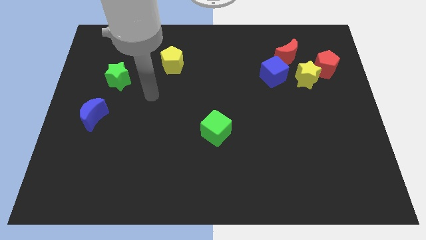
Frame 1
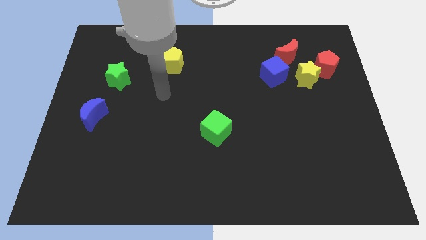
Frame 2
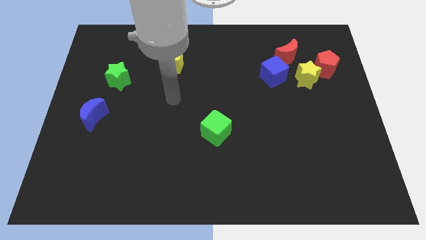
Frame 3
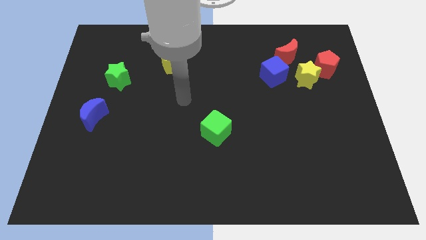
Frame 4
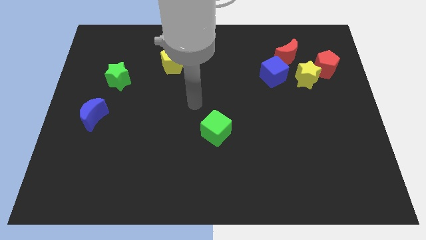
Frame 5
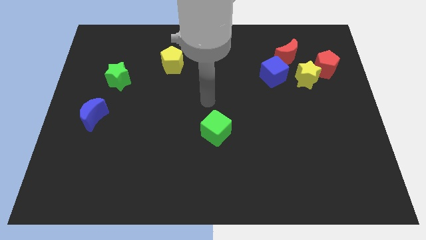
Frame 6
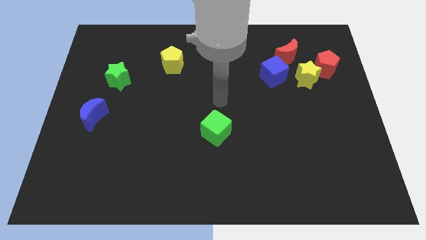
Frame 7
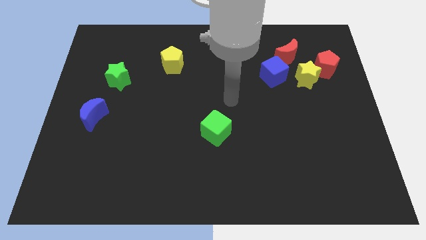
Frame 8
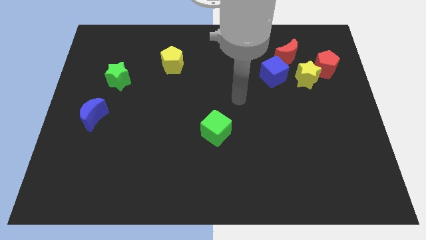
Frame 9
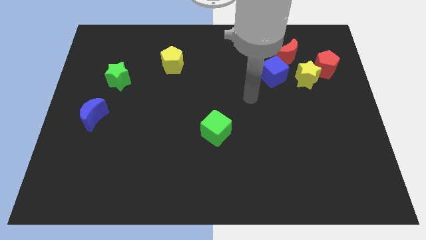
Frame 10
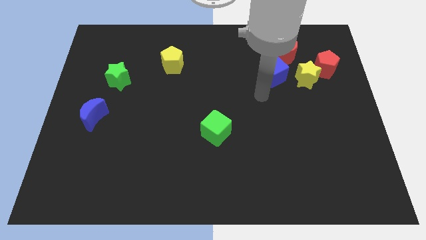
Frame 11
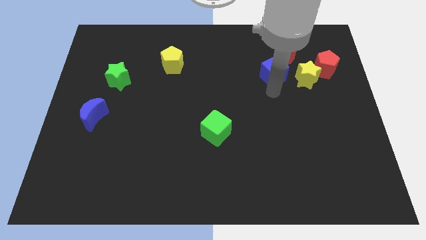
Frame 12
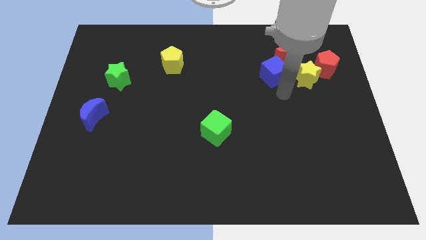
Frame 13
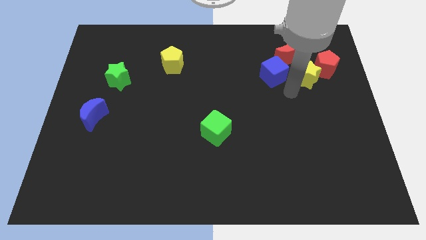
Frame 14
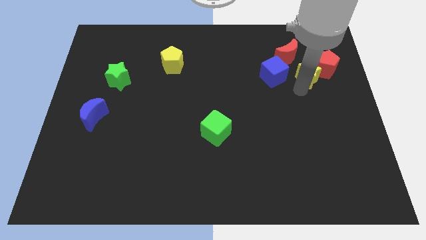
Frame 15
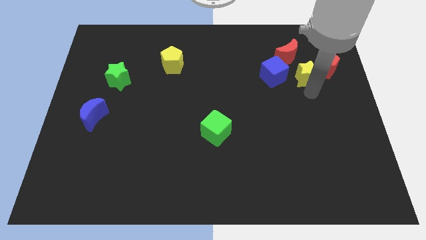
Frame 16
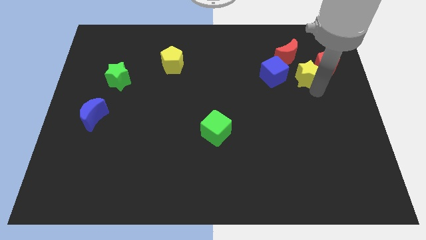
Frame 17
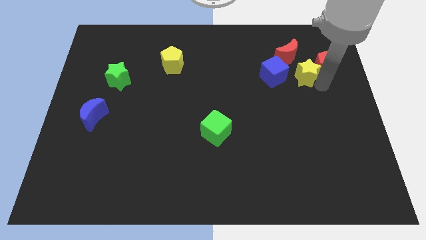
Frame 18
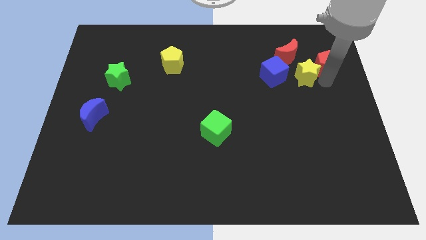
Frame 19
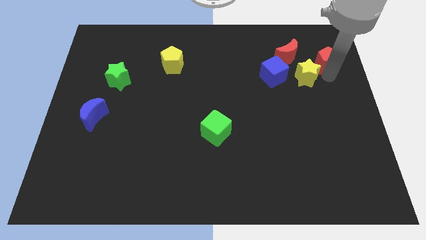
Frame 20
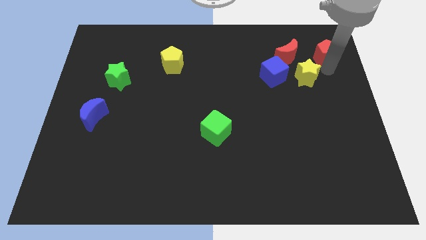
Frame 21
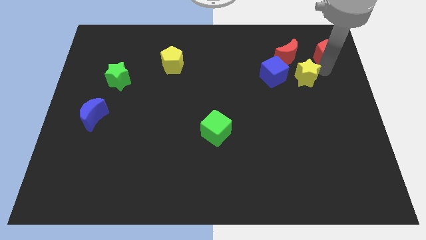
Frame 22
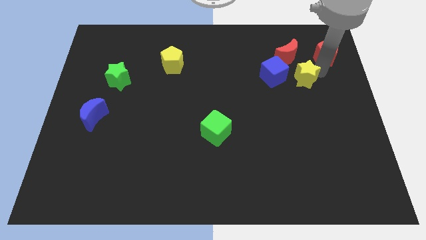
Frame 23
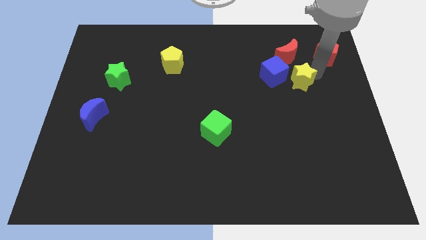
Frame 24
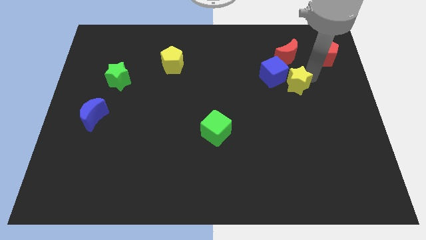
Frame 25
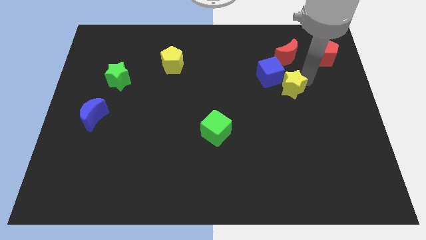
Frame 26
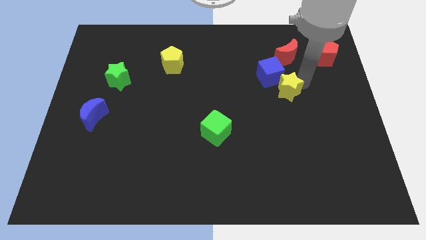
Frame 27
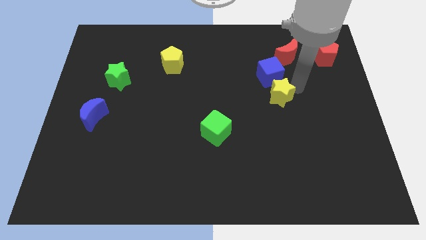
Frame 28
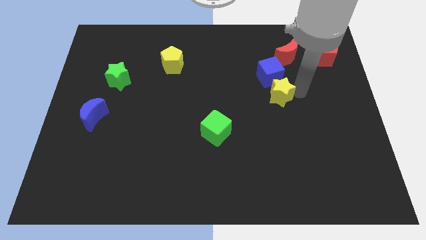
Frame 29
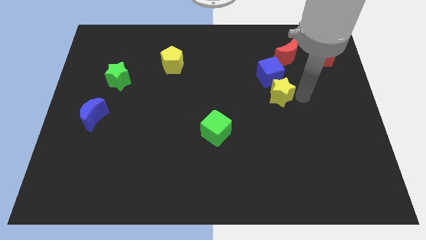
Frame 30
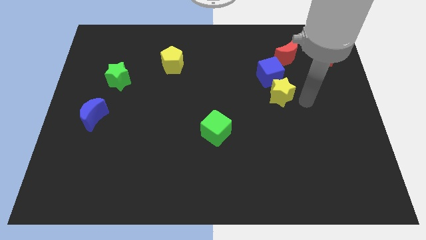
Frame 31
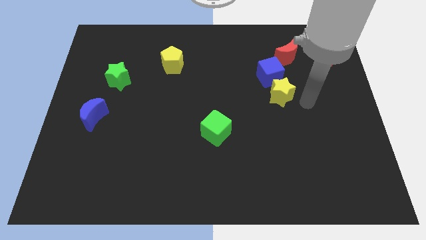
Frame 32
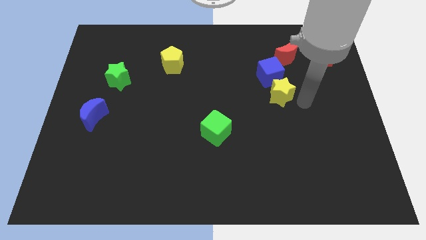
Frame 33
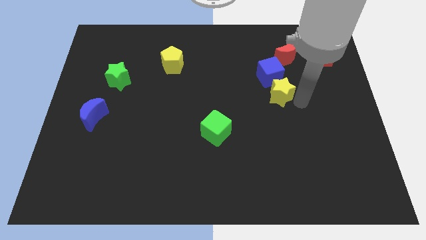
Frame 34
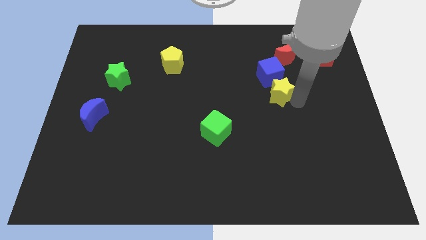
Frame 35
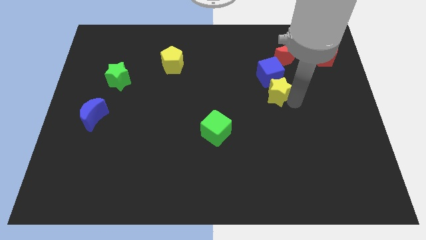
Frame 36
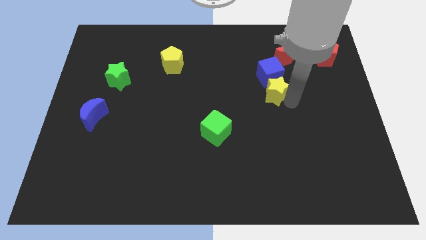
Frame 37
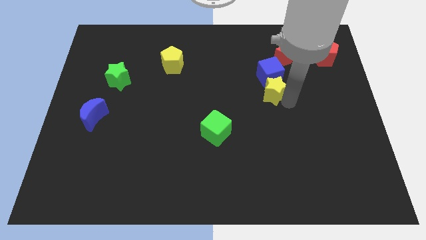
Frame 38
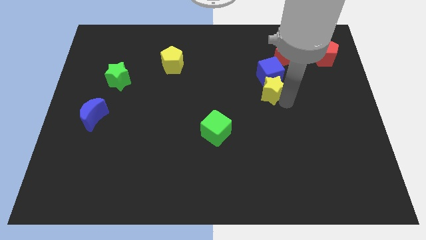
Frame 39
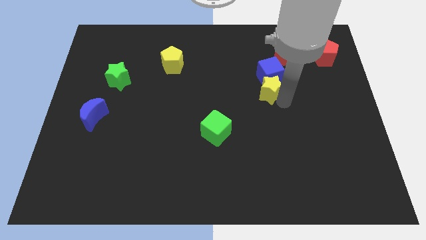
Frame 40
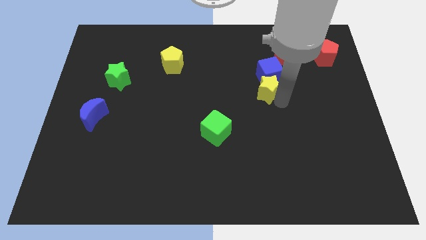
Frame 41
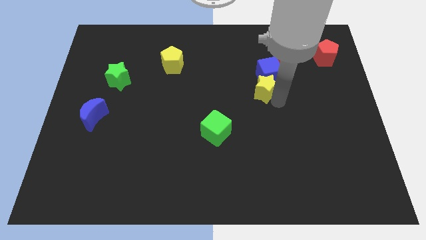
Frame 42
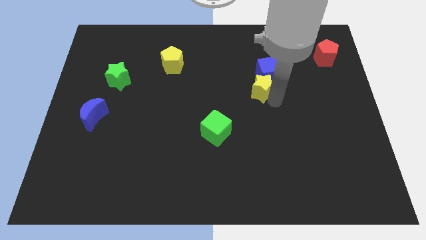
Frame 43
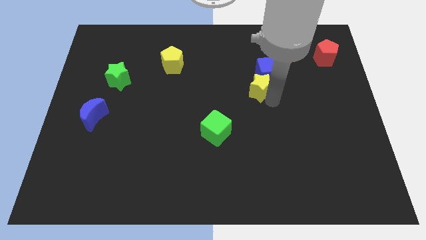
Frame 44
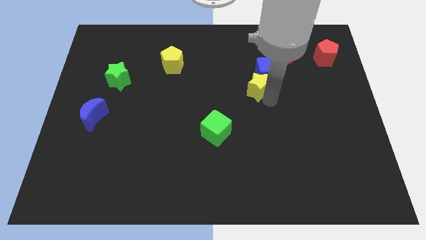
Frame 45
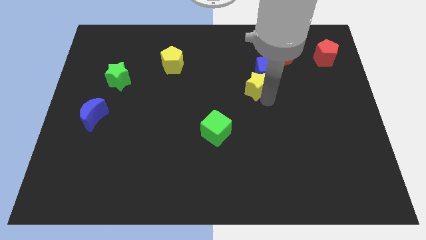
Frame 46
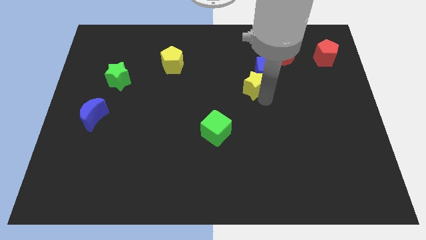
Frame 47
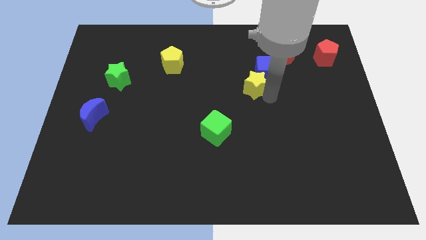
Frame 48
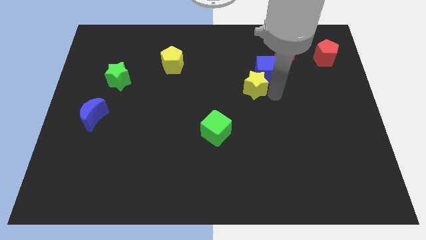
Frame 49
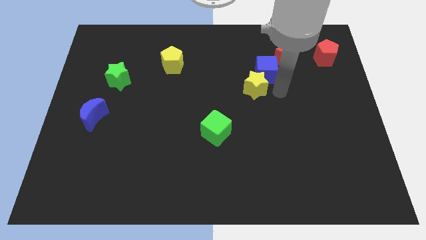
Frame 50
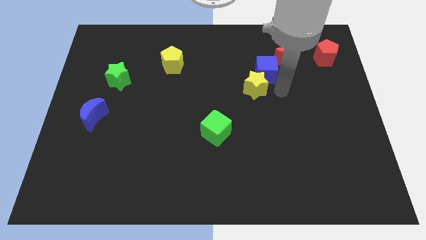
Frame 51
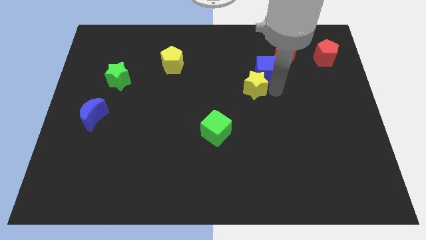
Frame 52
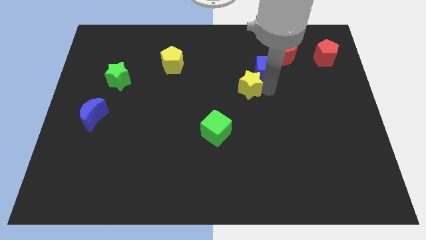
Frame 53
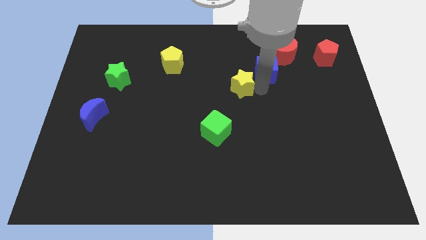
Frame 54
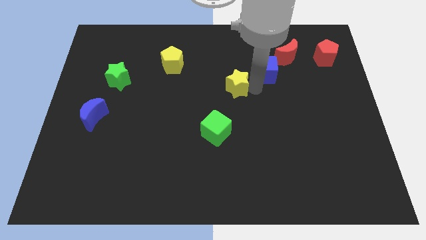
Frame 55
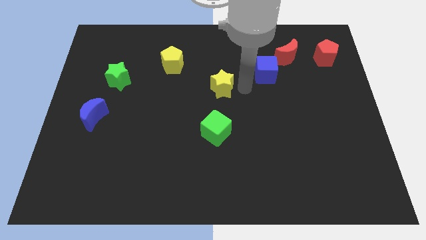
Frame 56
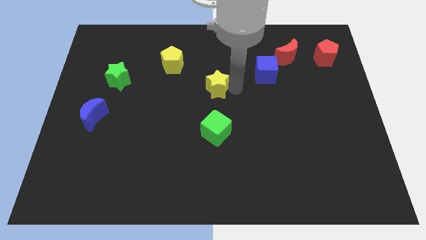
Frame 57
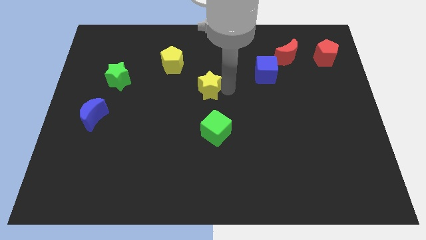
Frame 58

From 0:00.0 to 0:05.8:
put the yellow star to the bottom right side of the yellow pentagon
